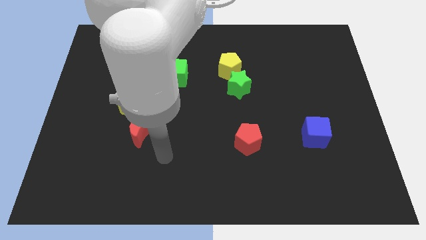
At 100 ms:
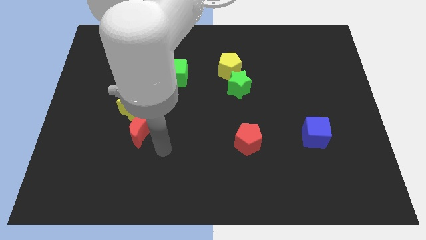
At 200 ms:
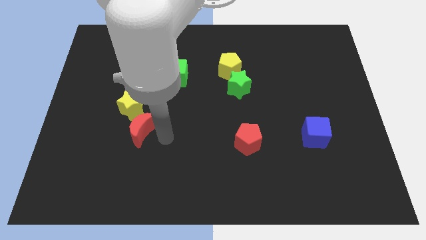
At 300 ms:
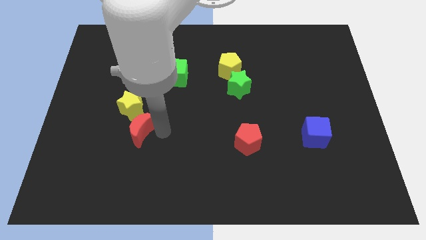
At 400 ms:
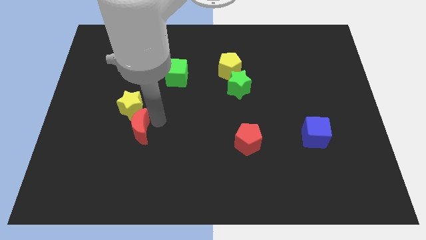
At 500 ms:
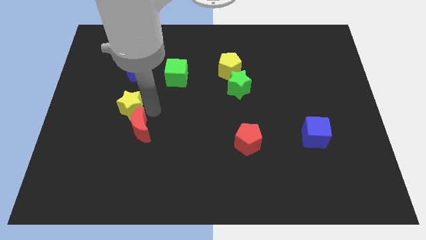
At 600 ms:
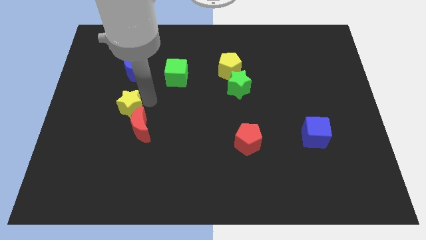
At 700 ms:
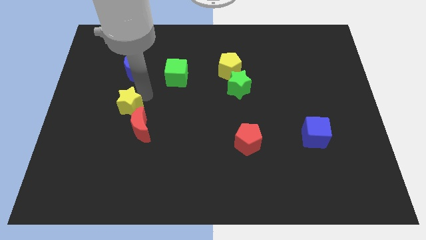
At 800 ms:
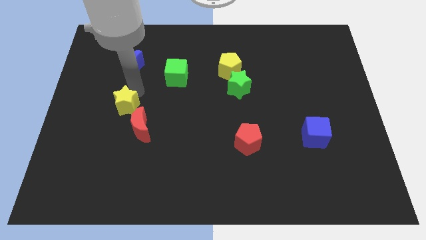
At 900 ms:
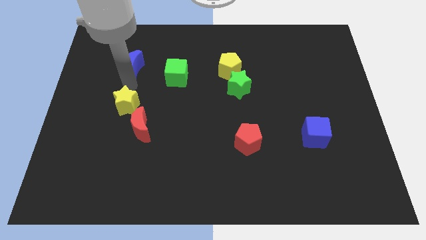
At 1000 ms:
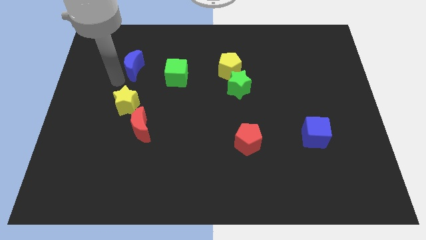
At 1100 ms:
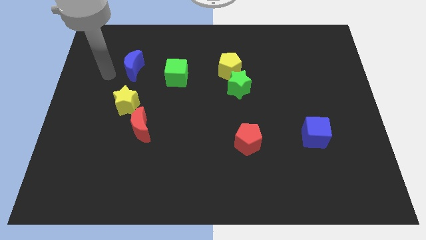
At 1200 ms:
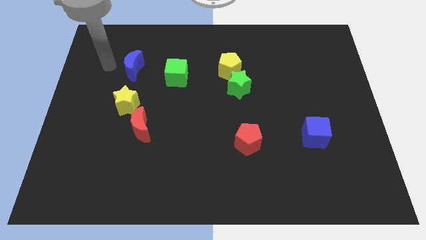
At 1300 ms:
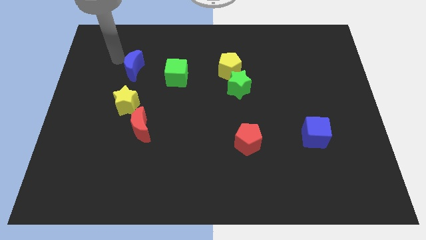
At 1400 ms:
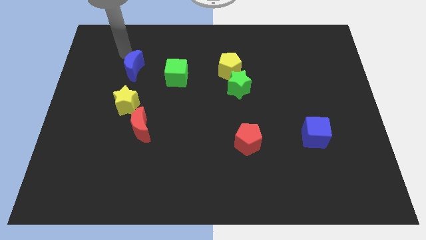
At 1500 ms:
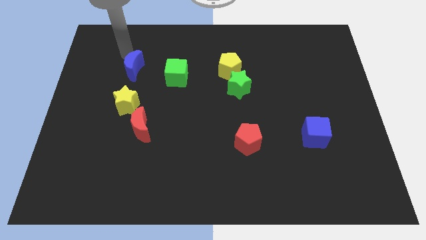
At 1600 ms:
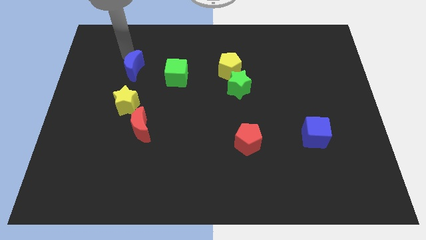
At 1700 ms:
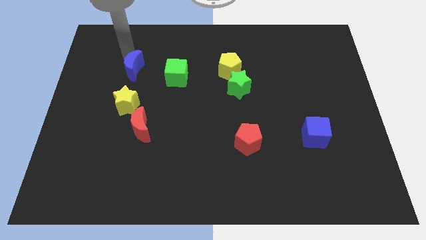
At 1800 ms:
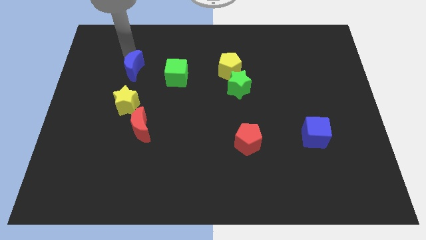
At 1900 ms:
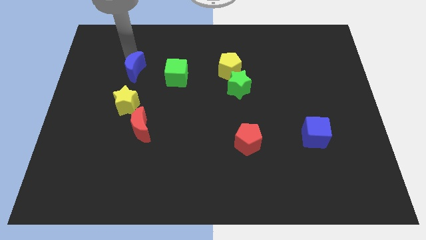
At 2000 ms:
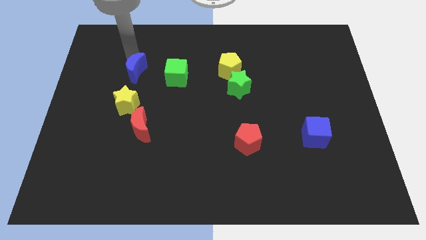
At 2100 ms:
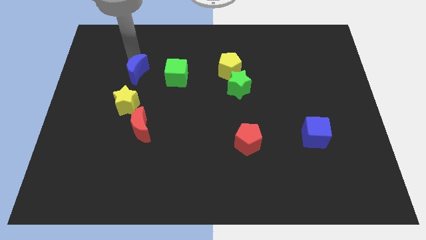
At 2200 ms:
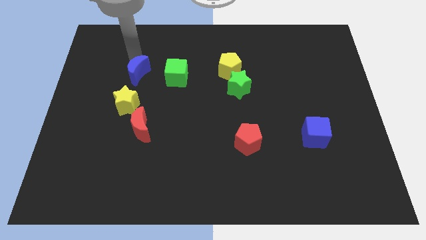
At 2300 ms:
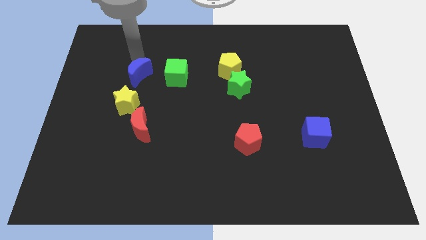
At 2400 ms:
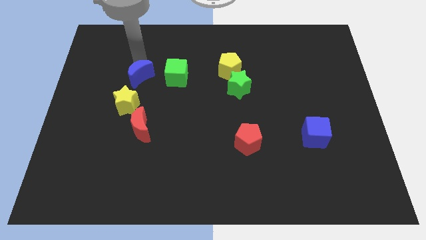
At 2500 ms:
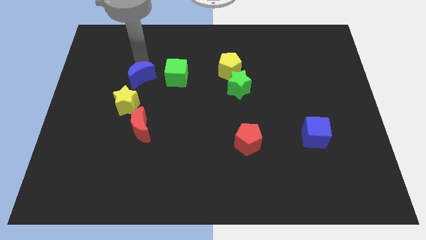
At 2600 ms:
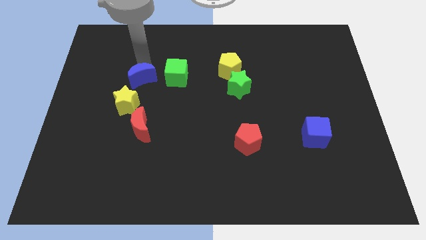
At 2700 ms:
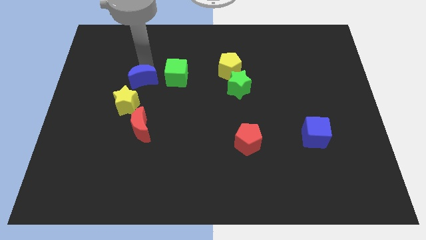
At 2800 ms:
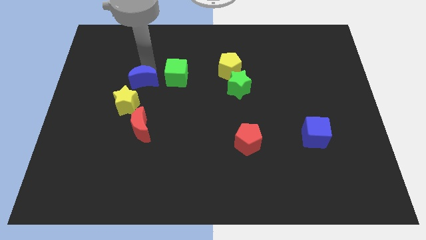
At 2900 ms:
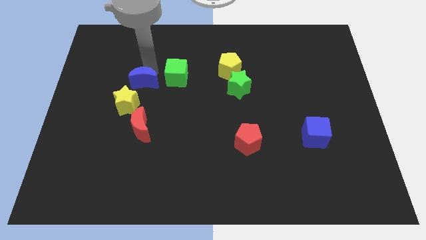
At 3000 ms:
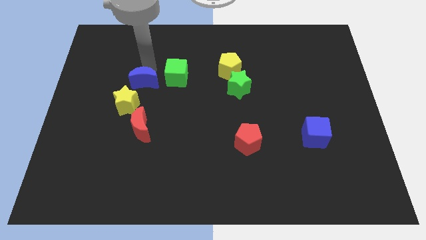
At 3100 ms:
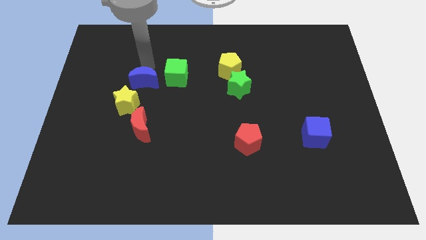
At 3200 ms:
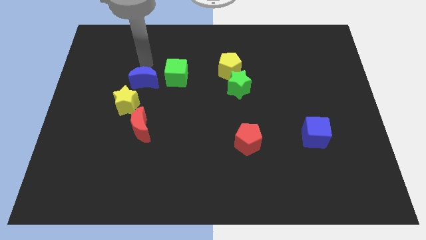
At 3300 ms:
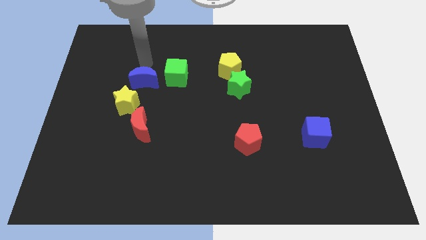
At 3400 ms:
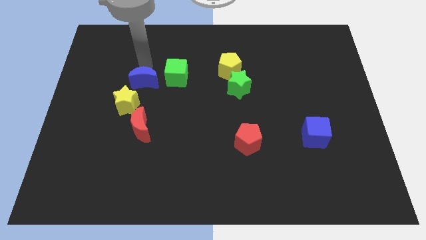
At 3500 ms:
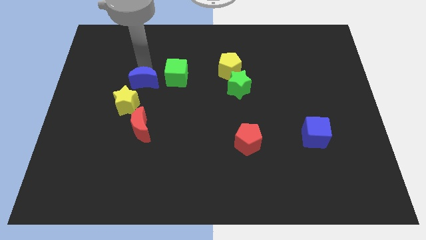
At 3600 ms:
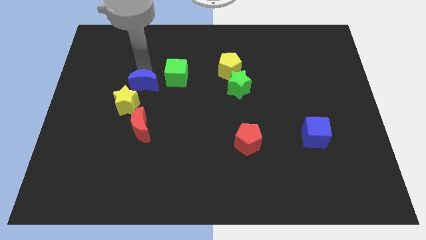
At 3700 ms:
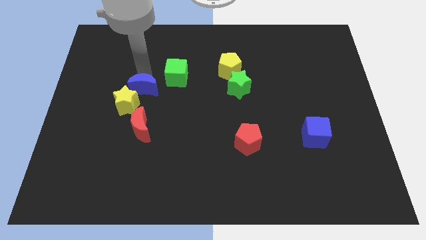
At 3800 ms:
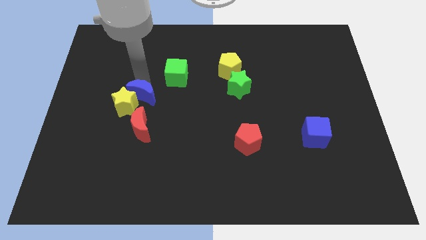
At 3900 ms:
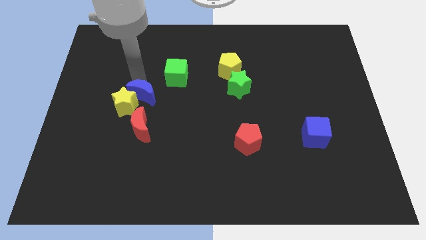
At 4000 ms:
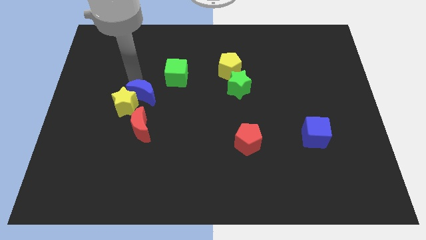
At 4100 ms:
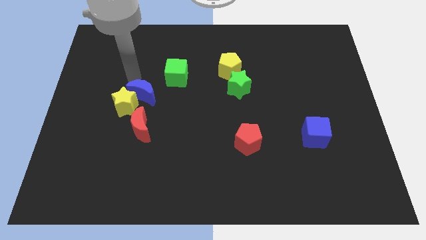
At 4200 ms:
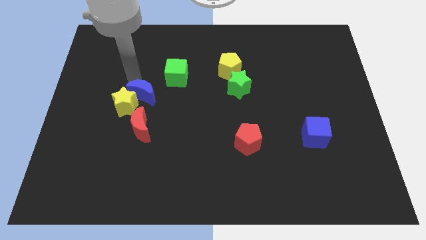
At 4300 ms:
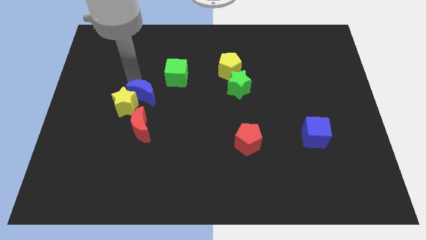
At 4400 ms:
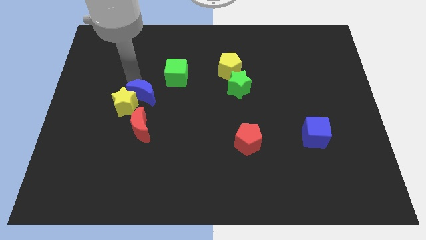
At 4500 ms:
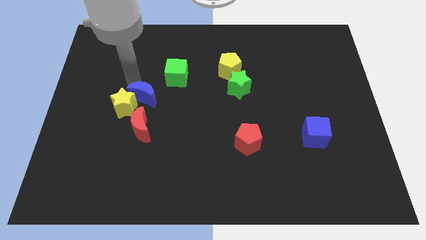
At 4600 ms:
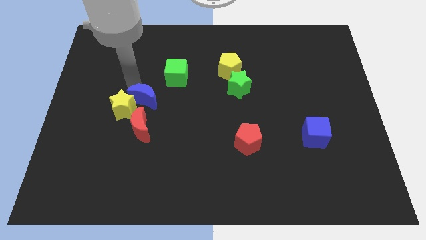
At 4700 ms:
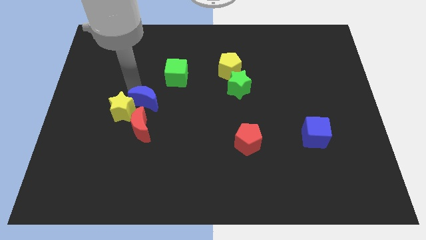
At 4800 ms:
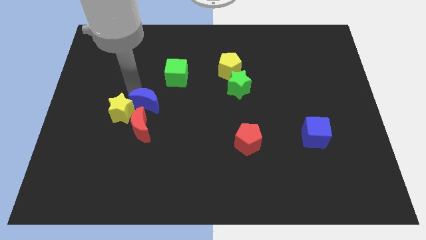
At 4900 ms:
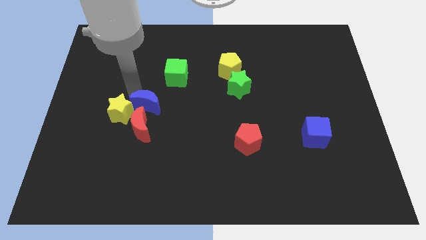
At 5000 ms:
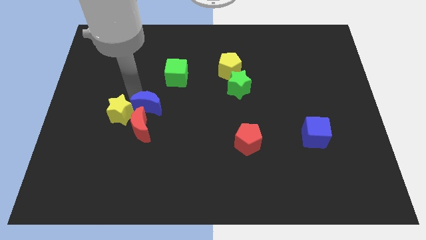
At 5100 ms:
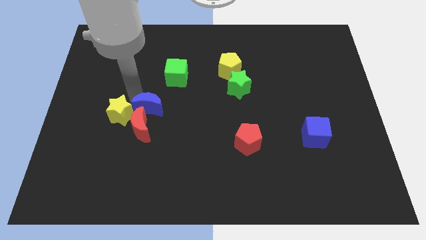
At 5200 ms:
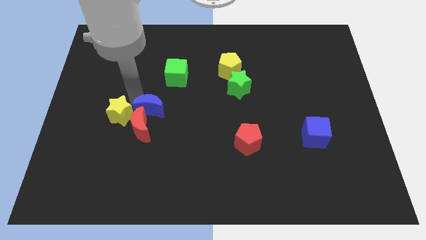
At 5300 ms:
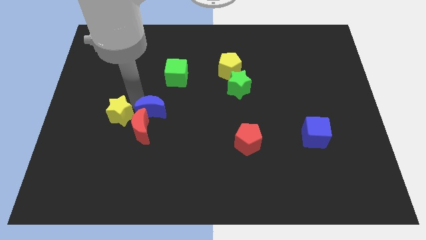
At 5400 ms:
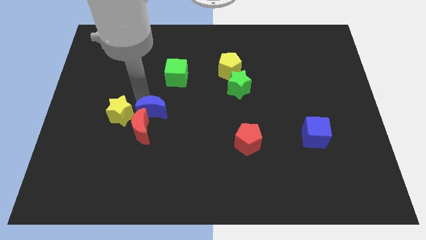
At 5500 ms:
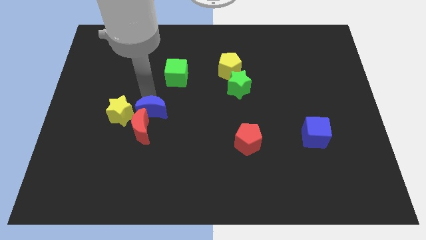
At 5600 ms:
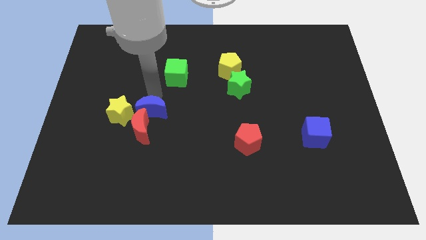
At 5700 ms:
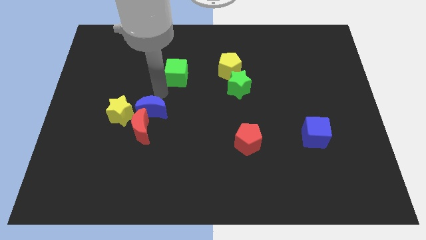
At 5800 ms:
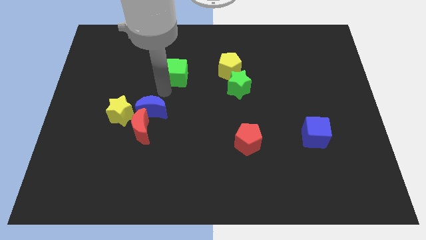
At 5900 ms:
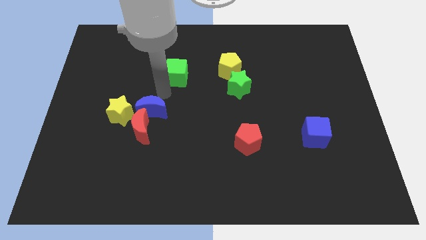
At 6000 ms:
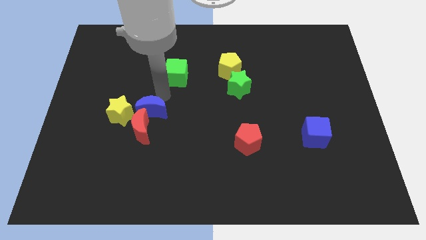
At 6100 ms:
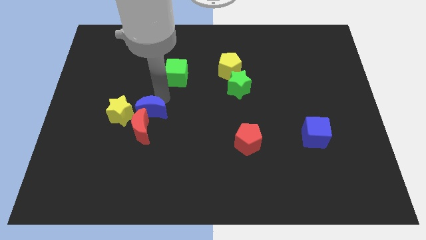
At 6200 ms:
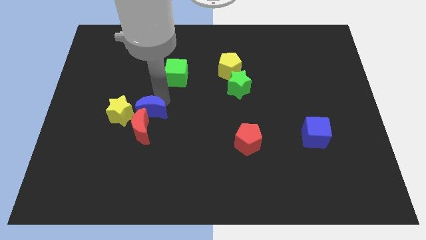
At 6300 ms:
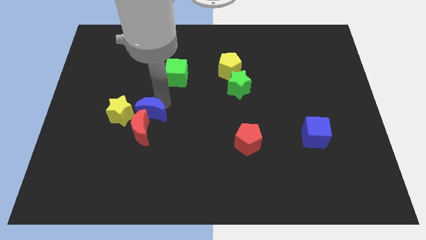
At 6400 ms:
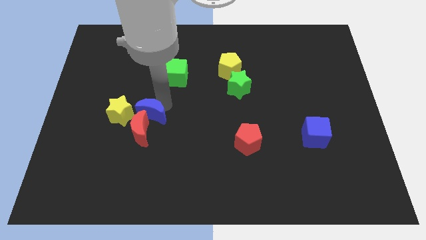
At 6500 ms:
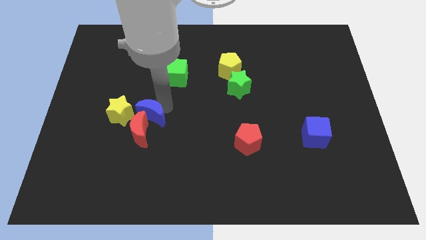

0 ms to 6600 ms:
move the blue moon diagonally down and to the right of the yellow star

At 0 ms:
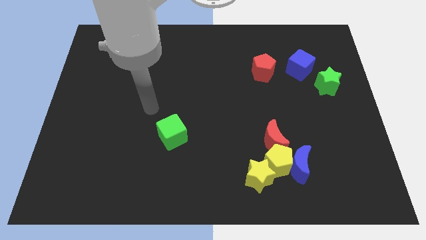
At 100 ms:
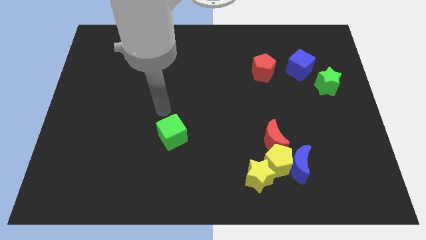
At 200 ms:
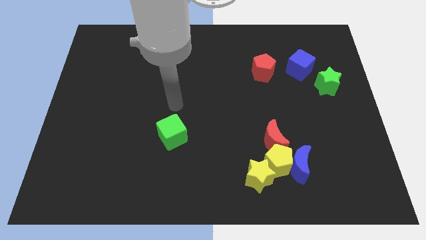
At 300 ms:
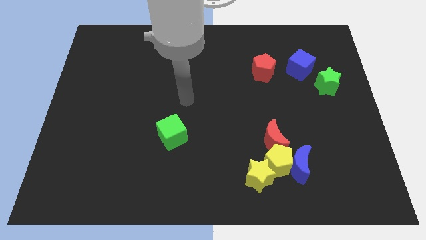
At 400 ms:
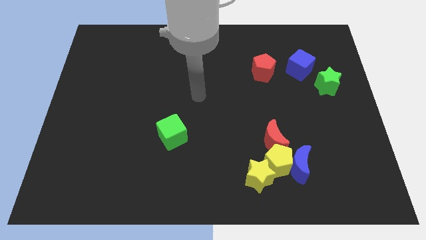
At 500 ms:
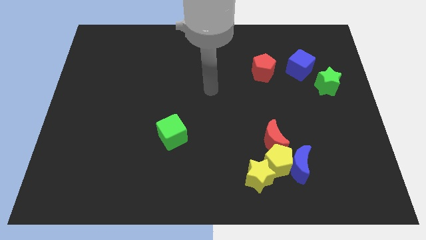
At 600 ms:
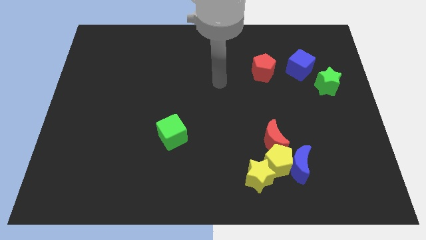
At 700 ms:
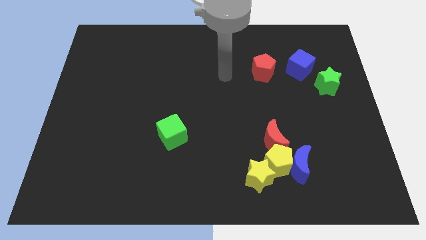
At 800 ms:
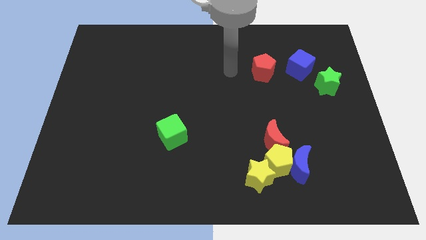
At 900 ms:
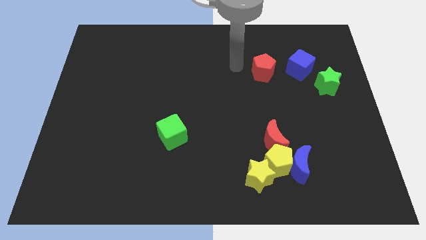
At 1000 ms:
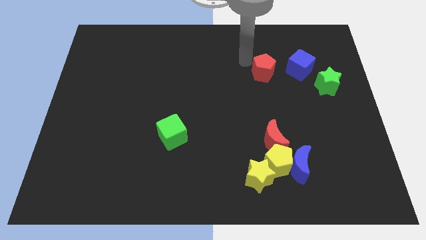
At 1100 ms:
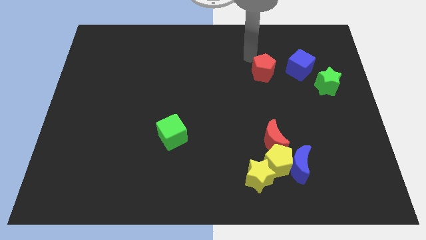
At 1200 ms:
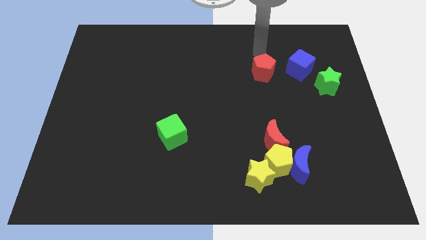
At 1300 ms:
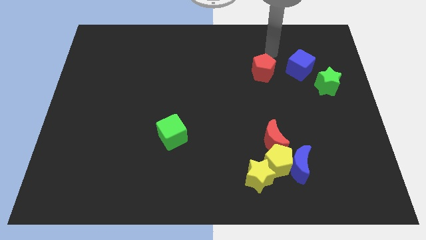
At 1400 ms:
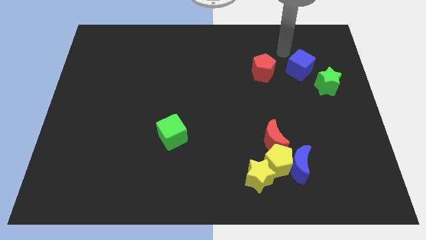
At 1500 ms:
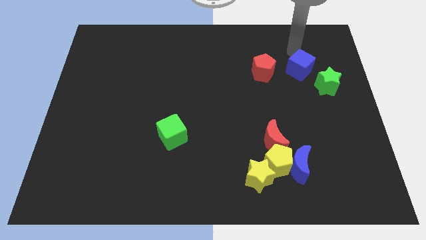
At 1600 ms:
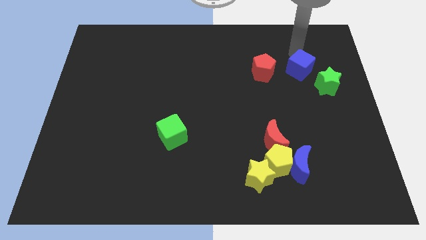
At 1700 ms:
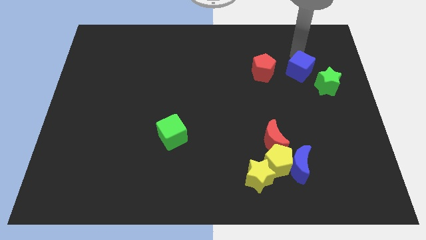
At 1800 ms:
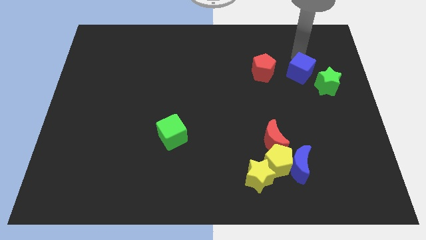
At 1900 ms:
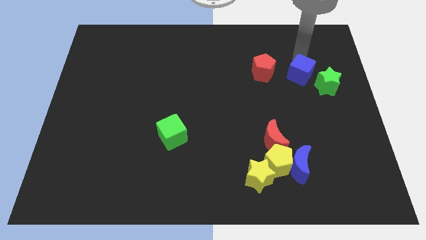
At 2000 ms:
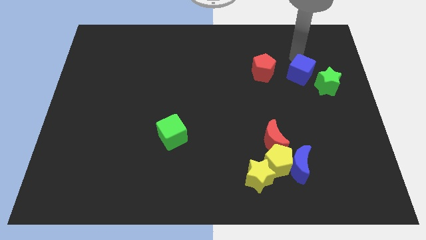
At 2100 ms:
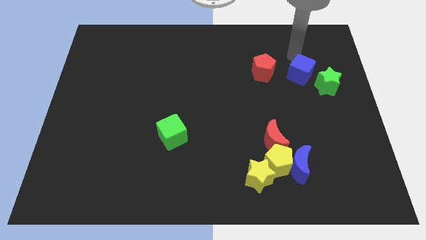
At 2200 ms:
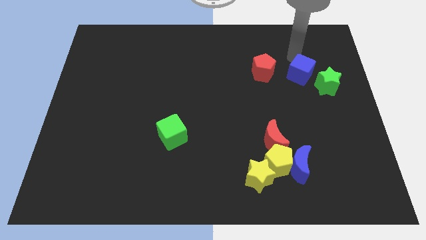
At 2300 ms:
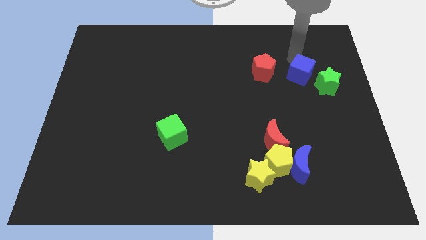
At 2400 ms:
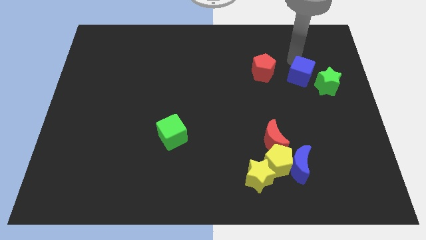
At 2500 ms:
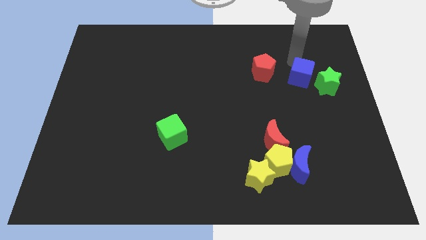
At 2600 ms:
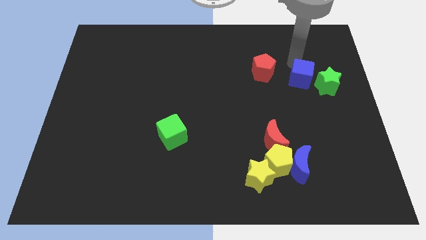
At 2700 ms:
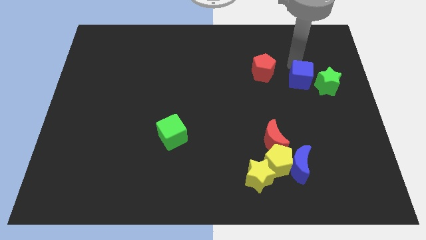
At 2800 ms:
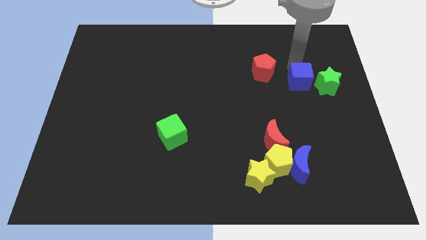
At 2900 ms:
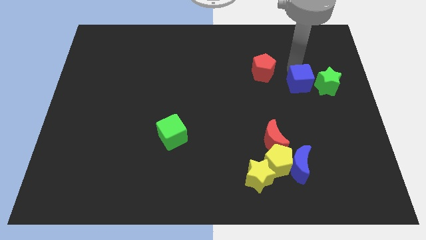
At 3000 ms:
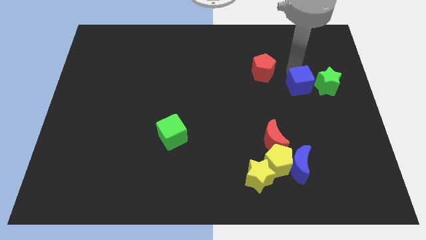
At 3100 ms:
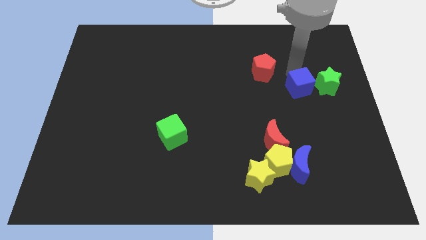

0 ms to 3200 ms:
put the blue cube diagonally down and to the left of the green star
